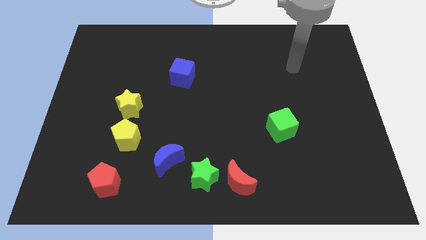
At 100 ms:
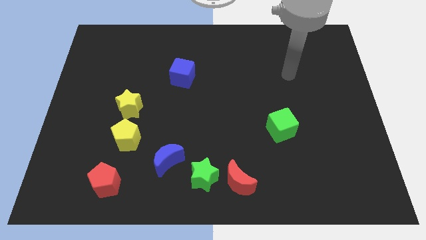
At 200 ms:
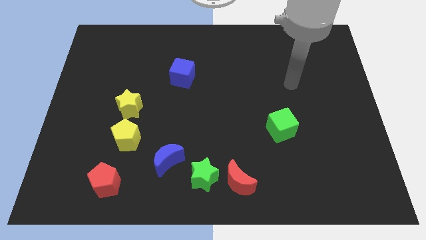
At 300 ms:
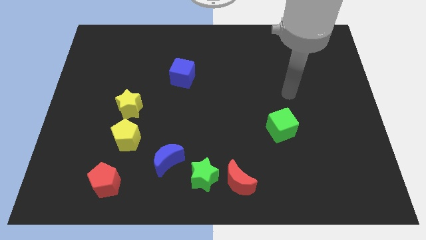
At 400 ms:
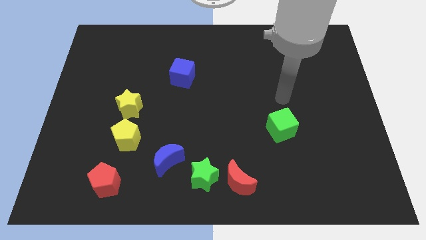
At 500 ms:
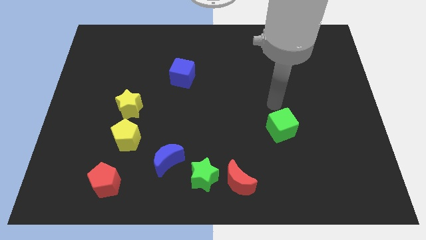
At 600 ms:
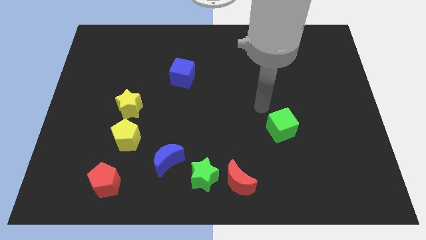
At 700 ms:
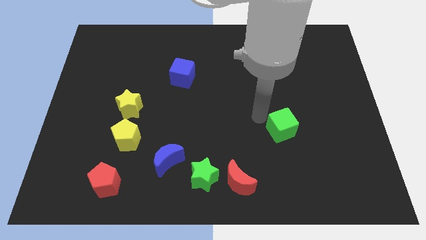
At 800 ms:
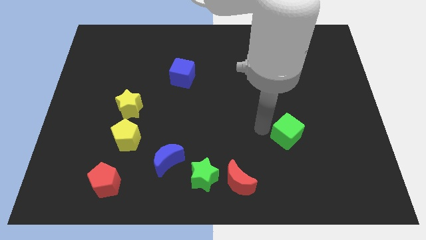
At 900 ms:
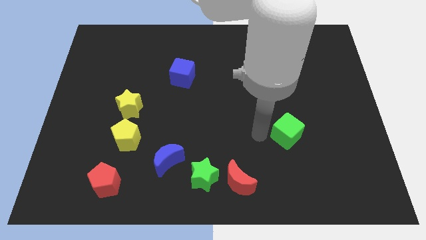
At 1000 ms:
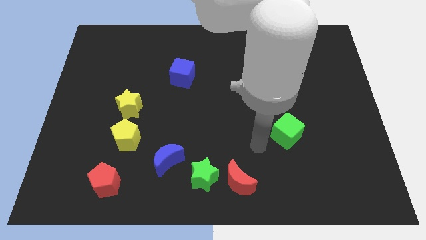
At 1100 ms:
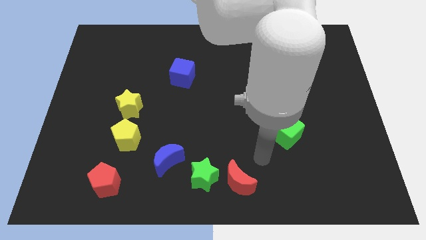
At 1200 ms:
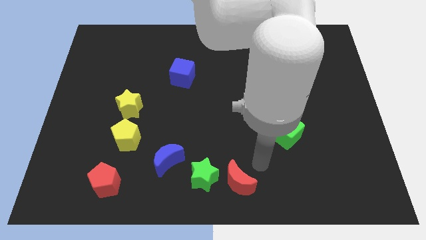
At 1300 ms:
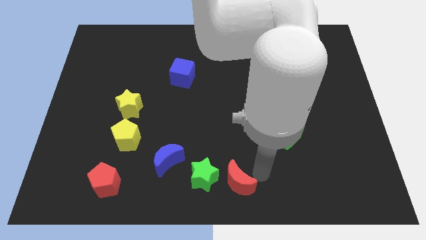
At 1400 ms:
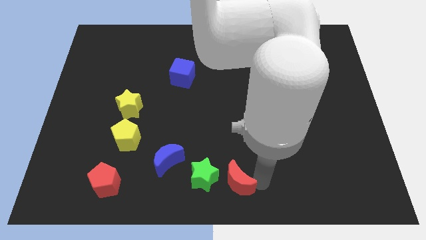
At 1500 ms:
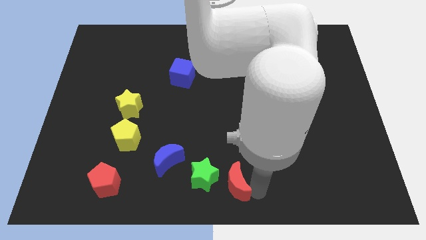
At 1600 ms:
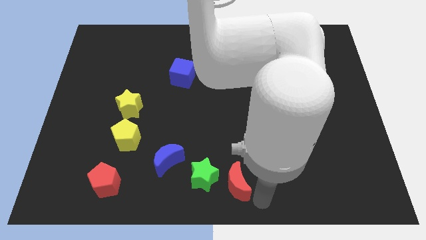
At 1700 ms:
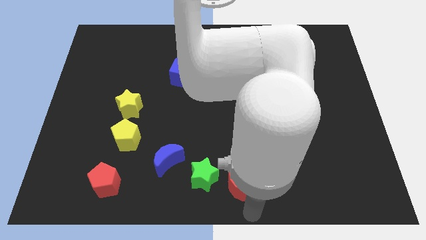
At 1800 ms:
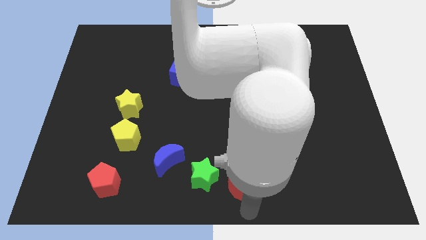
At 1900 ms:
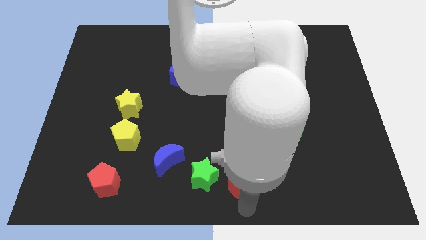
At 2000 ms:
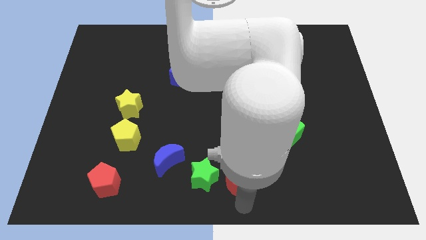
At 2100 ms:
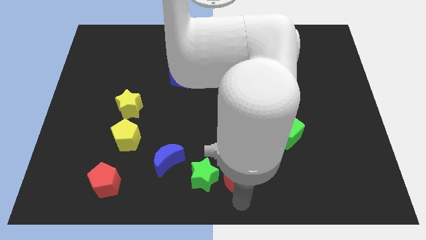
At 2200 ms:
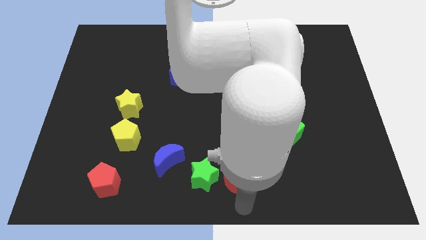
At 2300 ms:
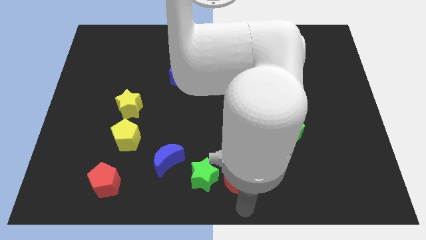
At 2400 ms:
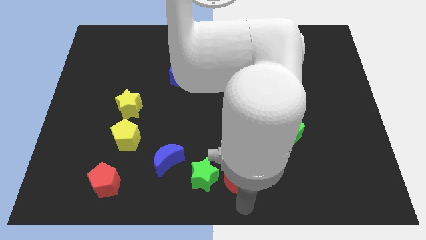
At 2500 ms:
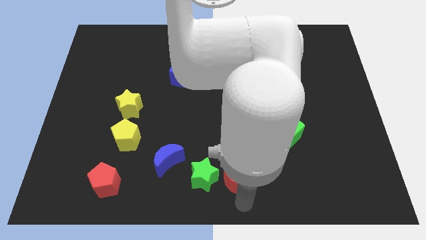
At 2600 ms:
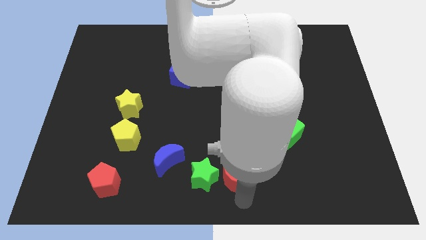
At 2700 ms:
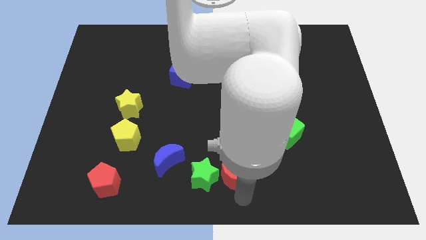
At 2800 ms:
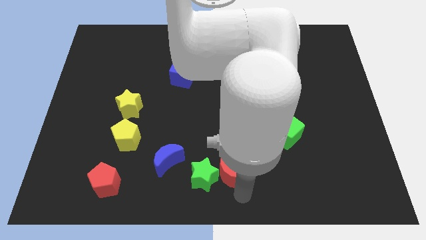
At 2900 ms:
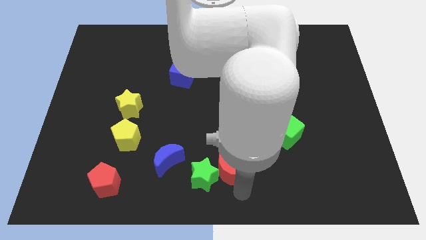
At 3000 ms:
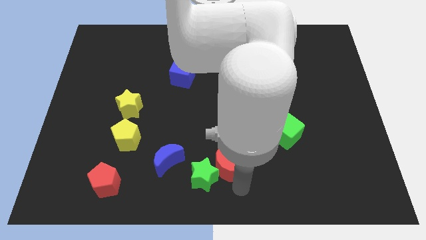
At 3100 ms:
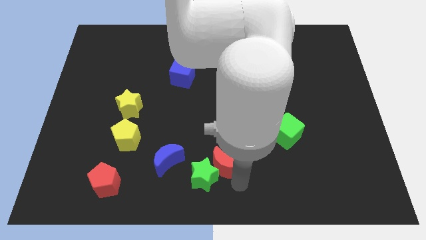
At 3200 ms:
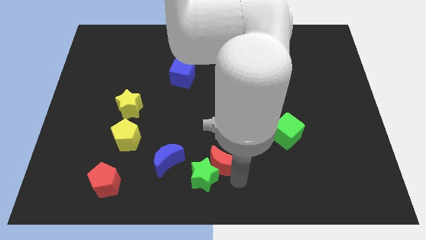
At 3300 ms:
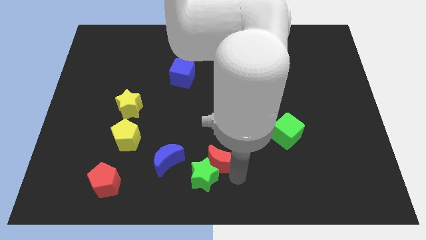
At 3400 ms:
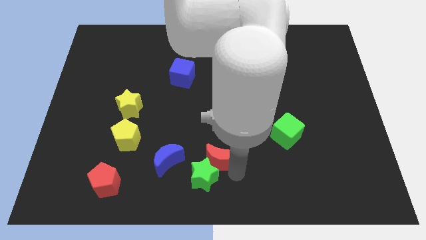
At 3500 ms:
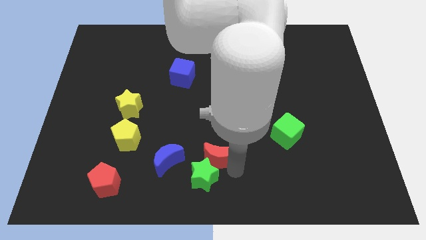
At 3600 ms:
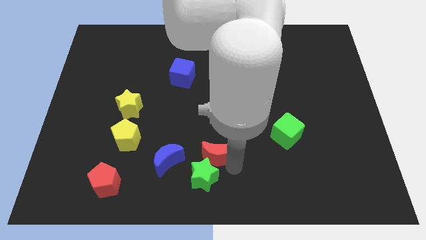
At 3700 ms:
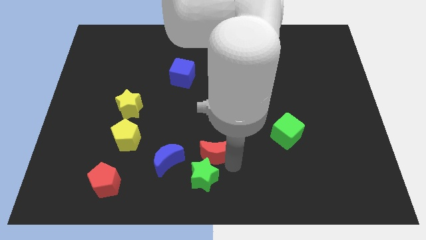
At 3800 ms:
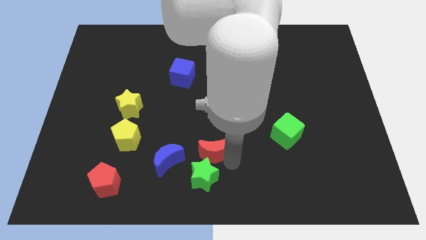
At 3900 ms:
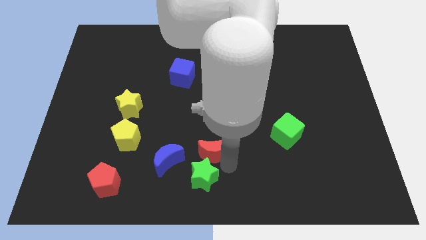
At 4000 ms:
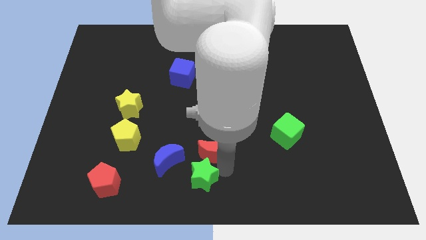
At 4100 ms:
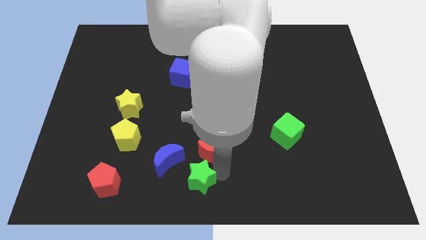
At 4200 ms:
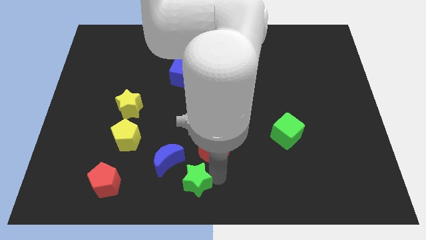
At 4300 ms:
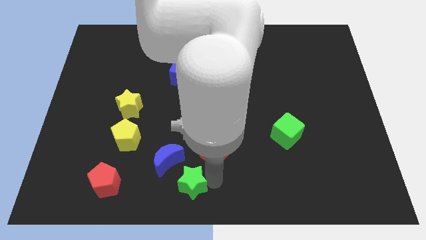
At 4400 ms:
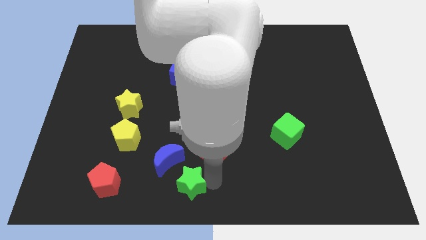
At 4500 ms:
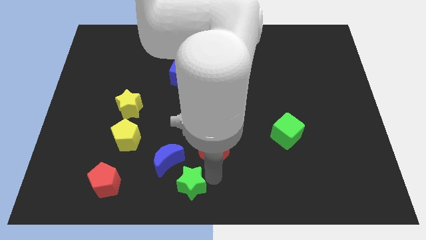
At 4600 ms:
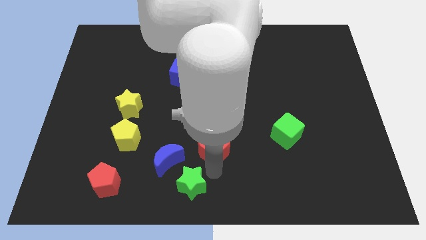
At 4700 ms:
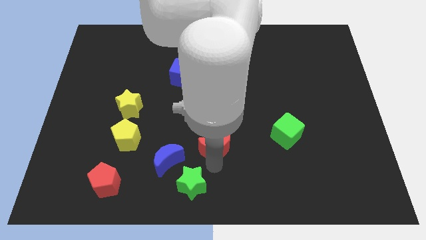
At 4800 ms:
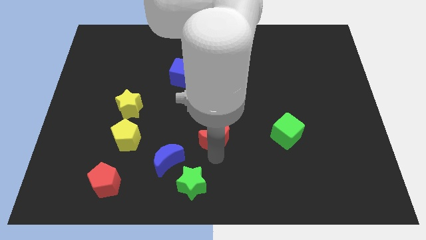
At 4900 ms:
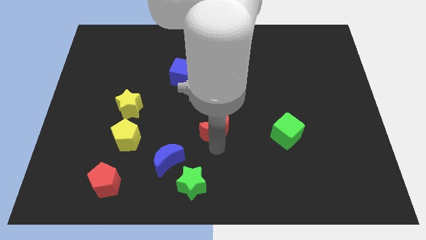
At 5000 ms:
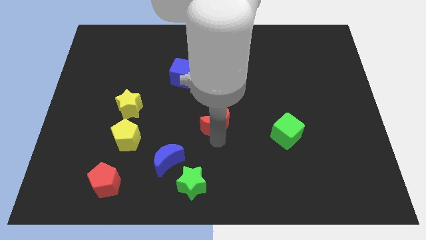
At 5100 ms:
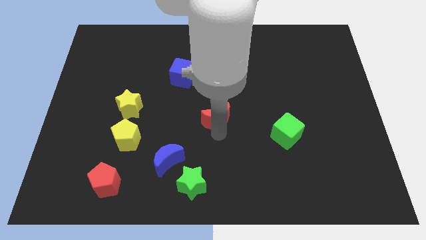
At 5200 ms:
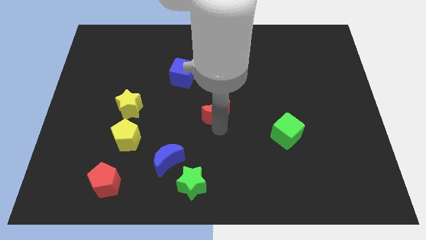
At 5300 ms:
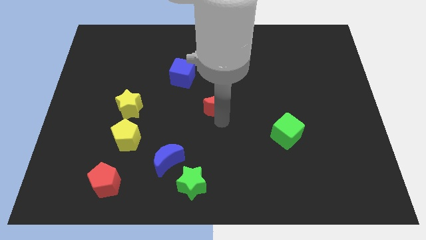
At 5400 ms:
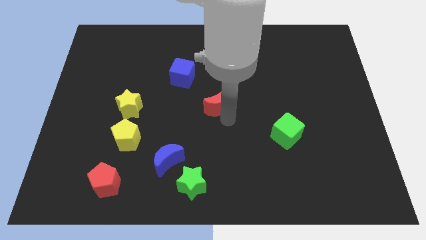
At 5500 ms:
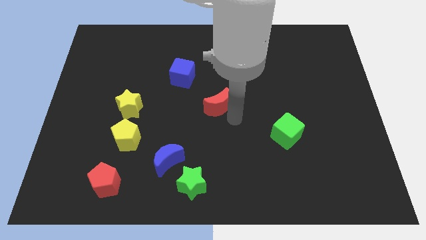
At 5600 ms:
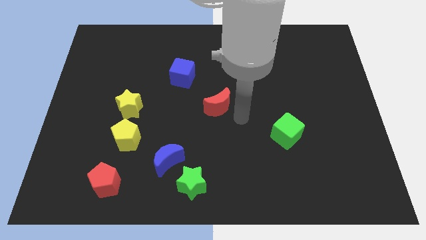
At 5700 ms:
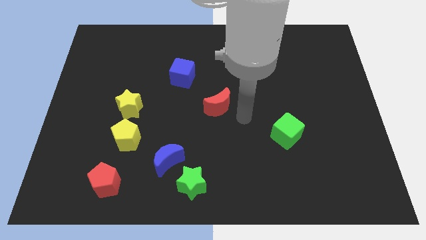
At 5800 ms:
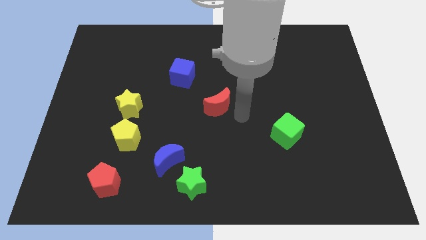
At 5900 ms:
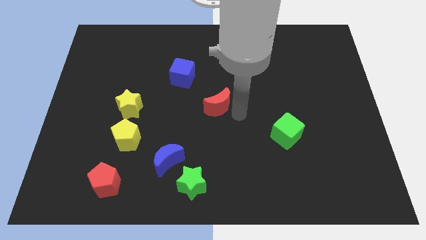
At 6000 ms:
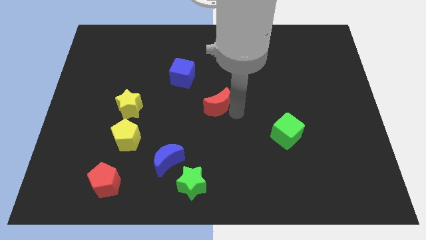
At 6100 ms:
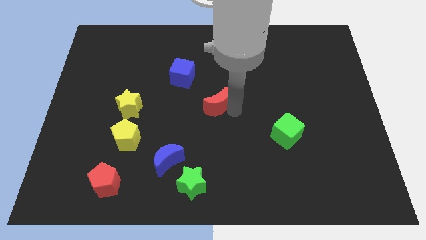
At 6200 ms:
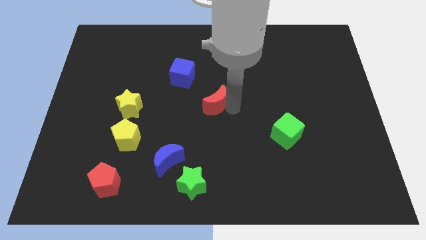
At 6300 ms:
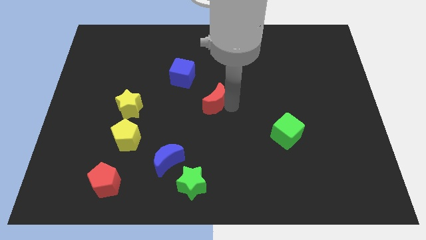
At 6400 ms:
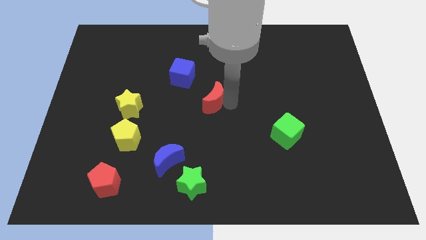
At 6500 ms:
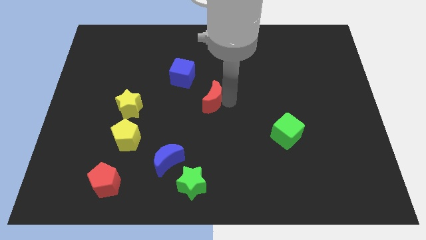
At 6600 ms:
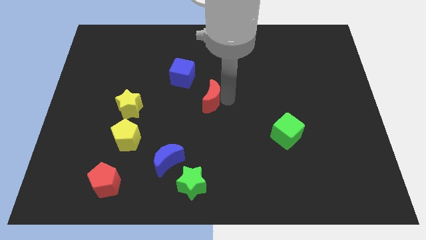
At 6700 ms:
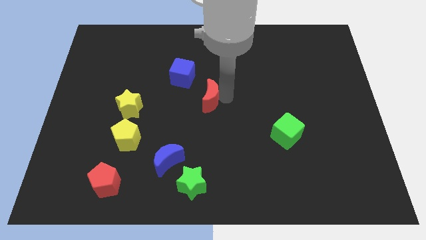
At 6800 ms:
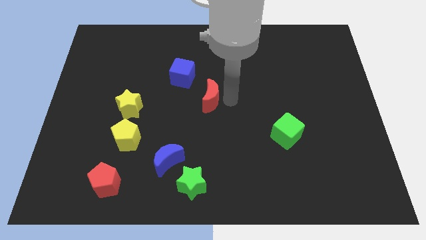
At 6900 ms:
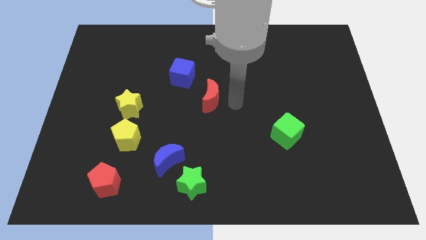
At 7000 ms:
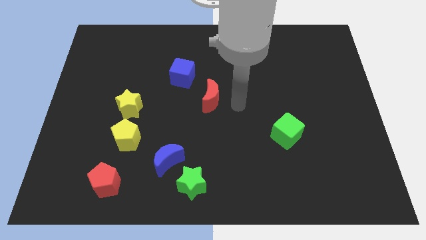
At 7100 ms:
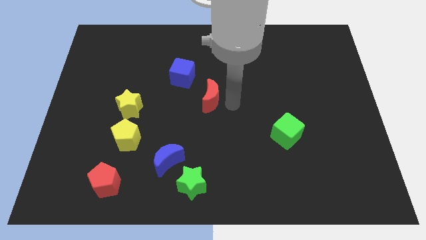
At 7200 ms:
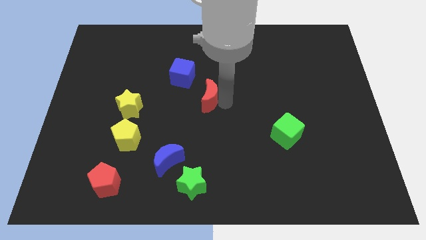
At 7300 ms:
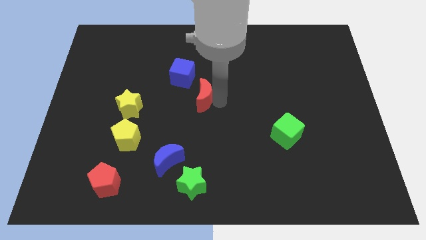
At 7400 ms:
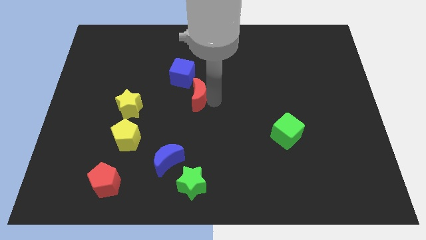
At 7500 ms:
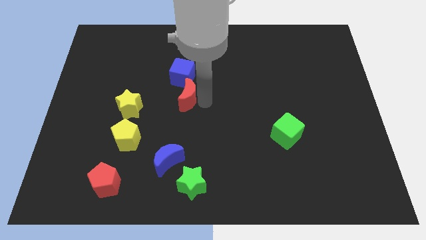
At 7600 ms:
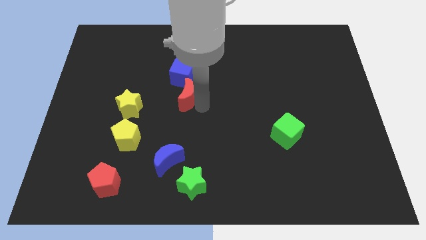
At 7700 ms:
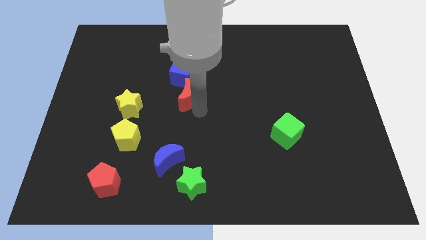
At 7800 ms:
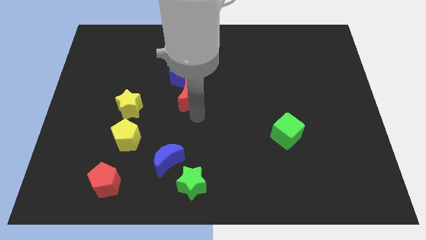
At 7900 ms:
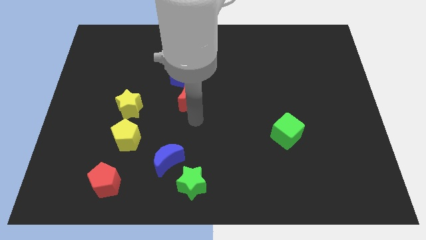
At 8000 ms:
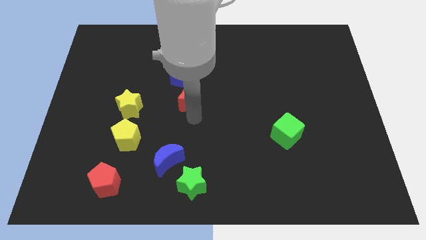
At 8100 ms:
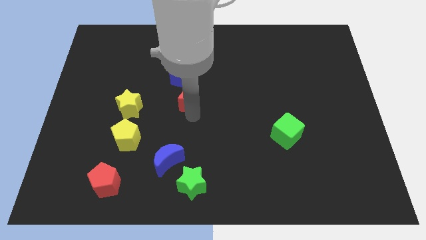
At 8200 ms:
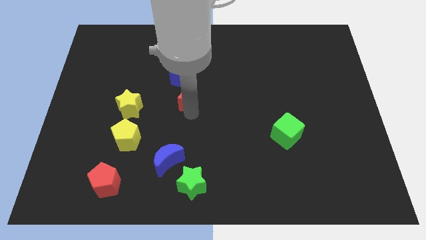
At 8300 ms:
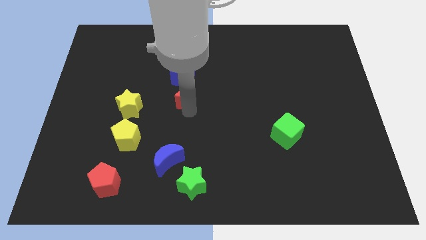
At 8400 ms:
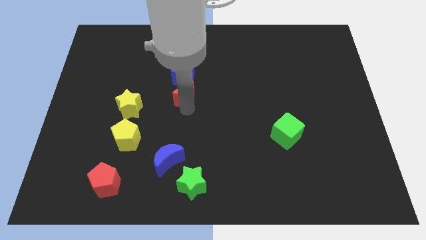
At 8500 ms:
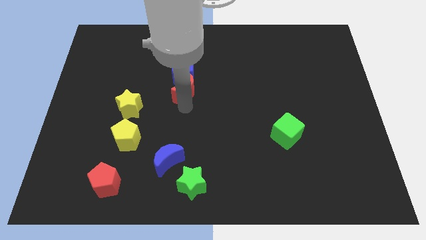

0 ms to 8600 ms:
put the red moon next to the blue cube
